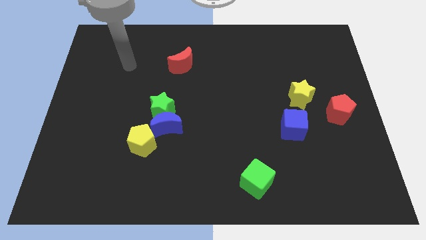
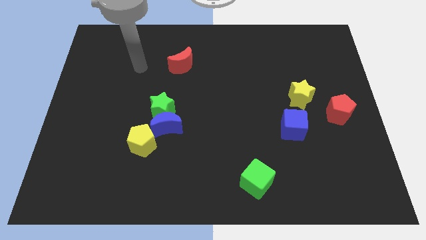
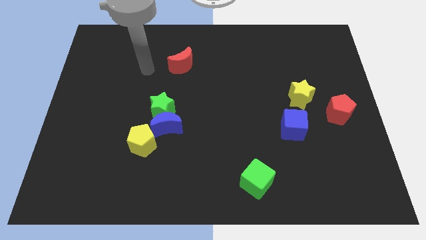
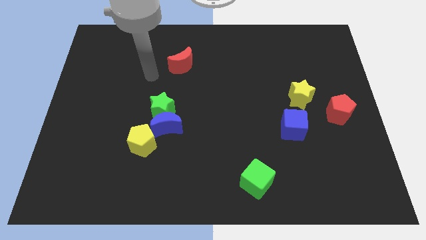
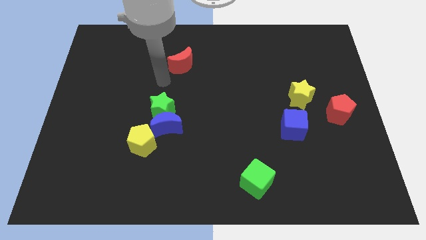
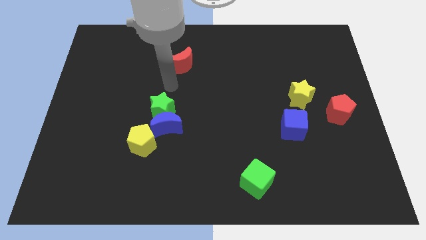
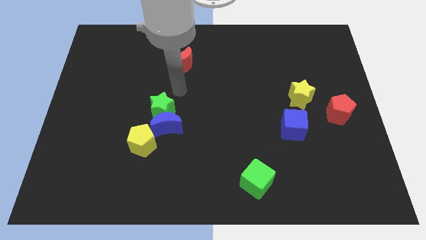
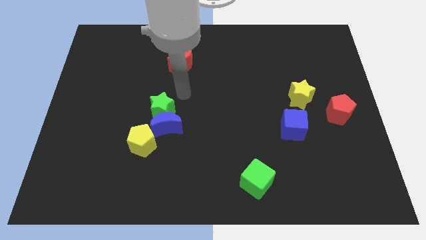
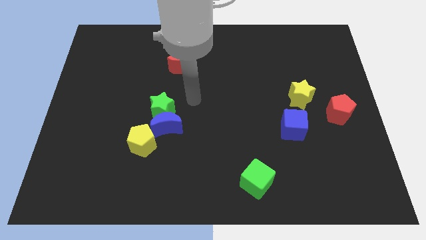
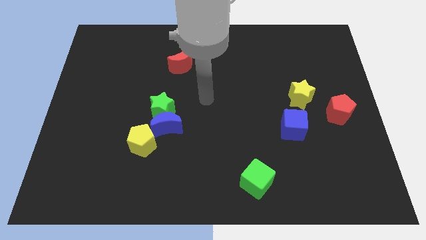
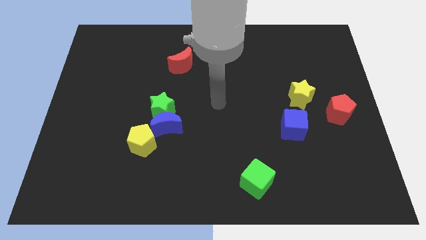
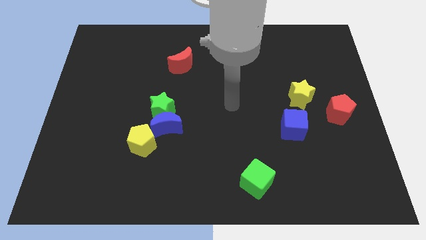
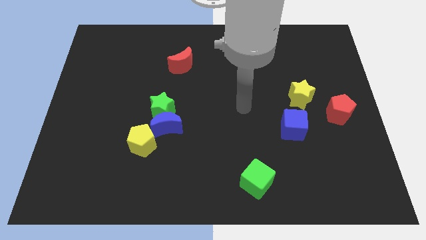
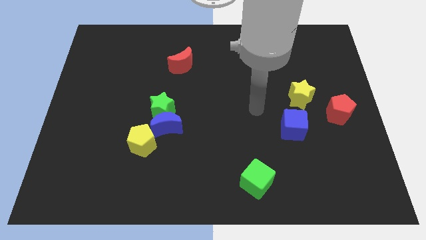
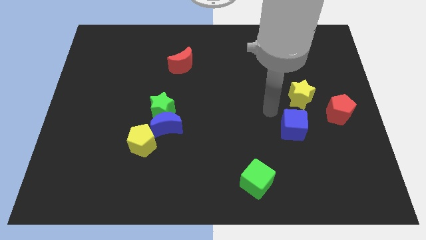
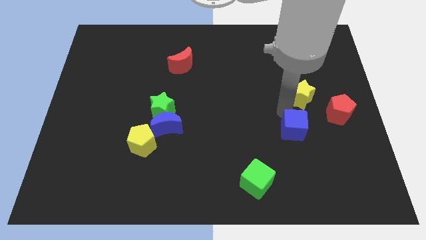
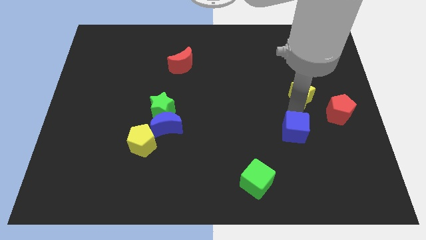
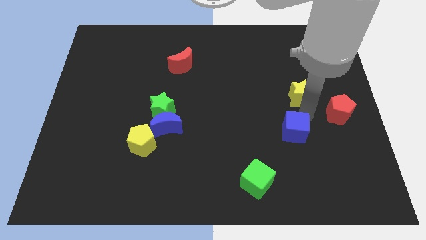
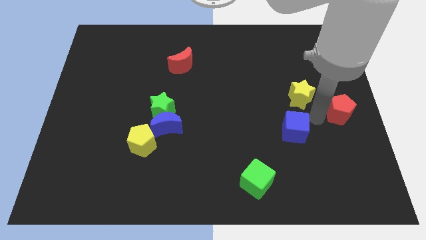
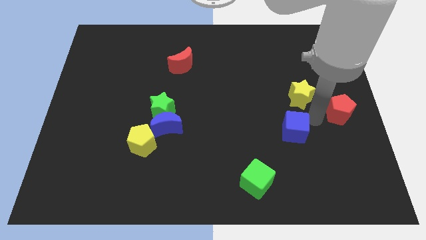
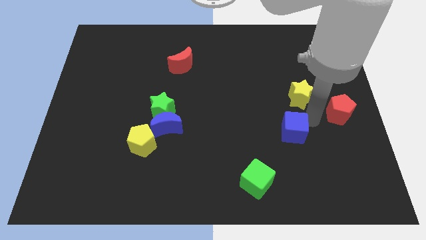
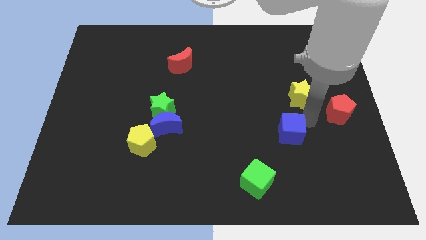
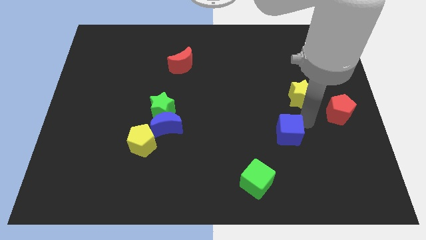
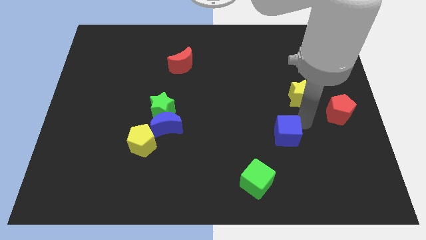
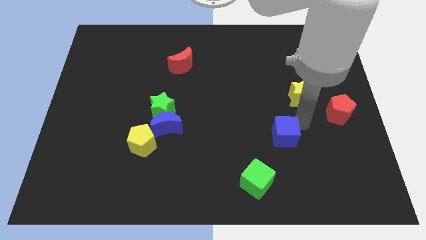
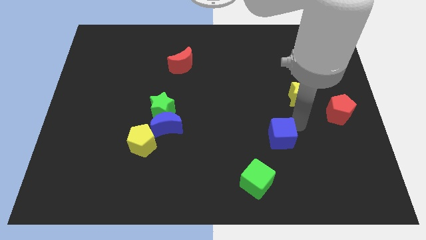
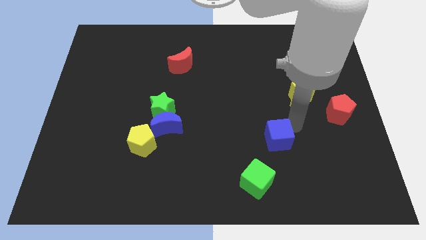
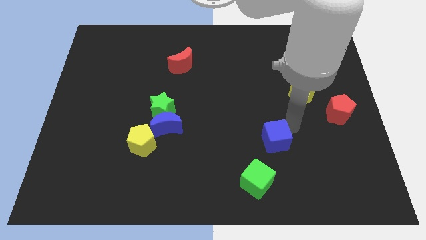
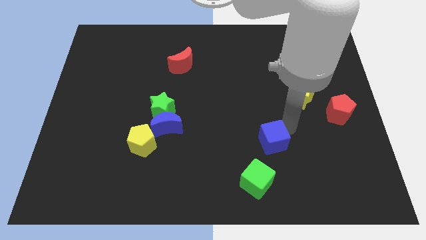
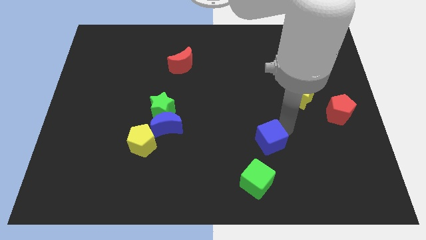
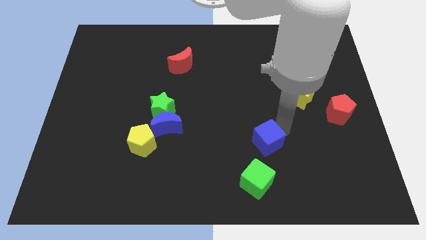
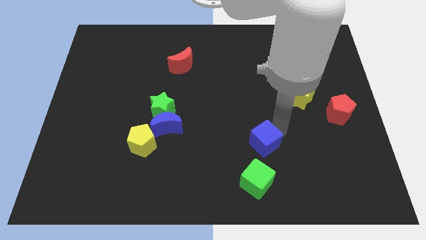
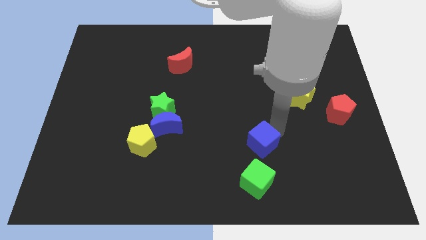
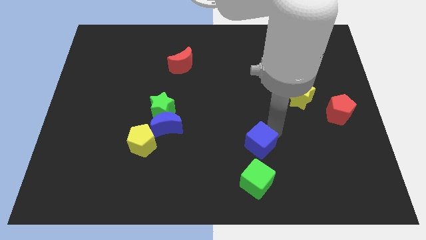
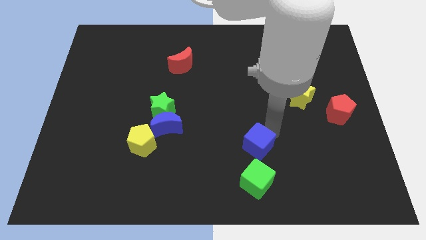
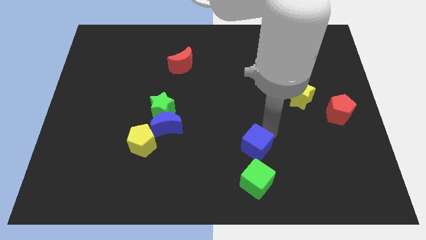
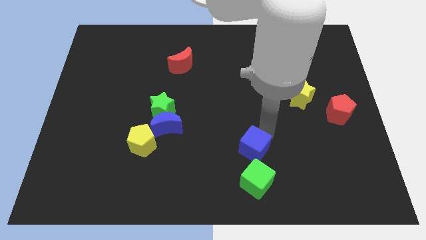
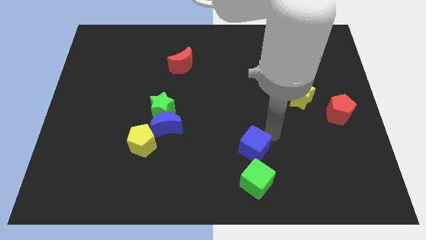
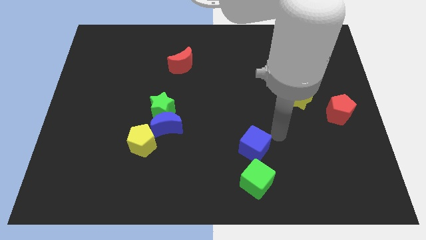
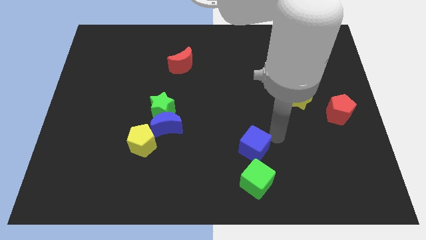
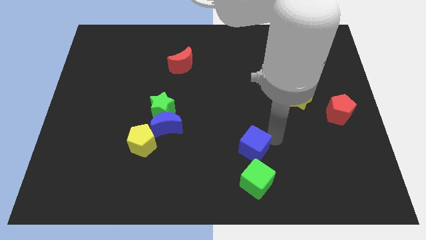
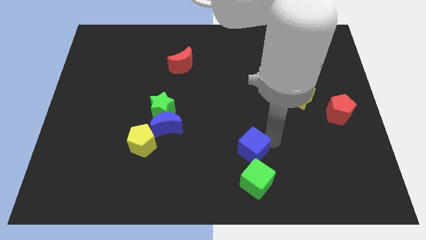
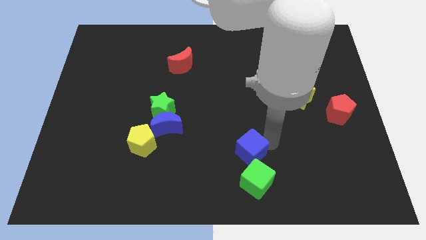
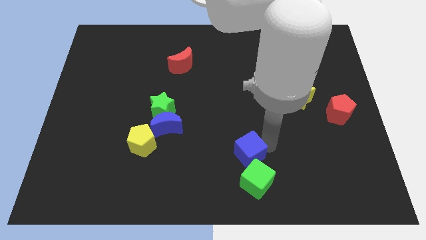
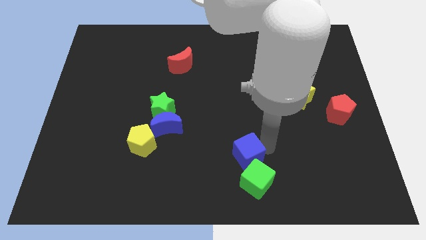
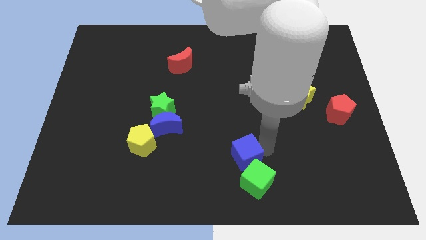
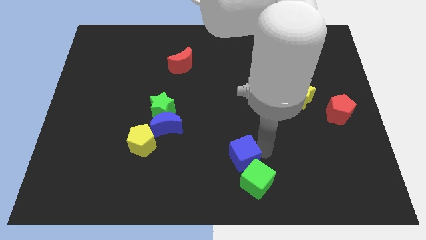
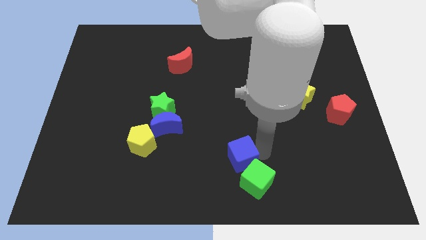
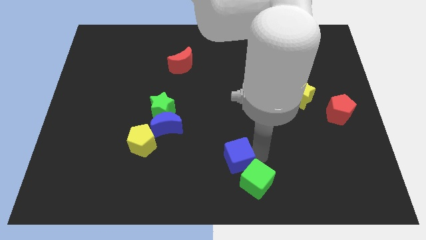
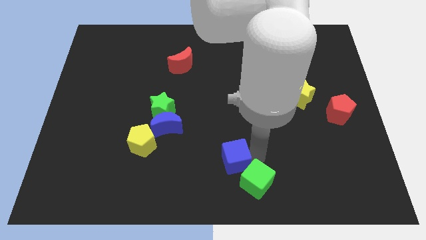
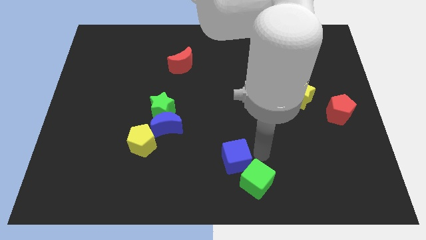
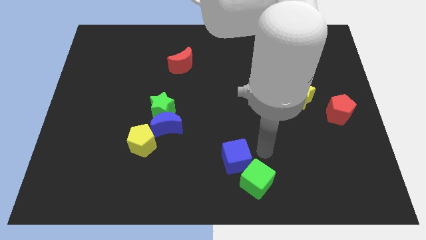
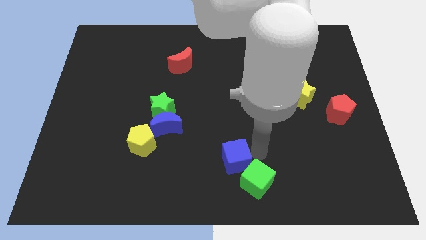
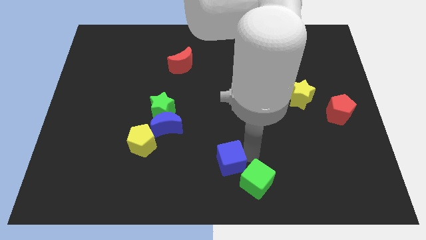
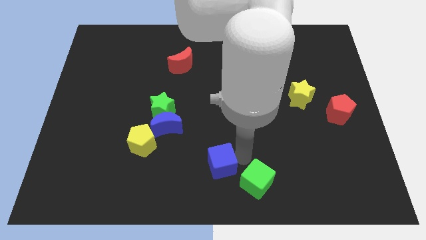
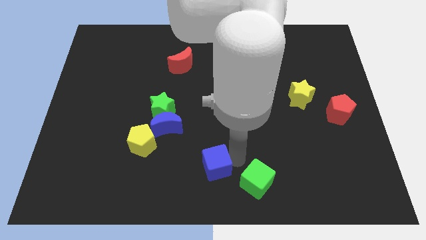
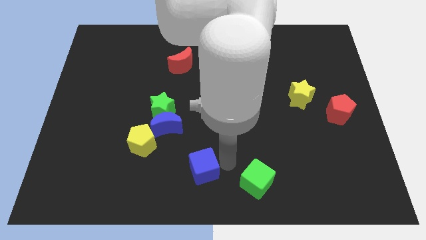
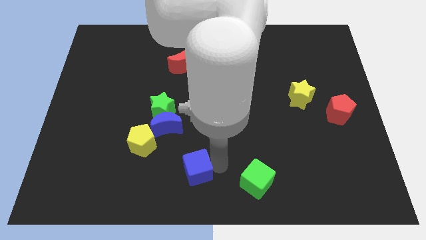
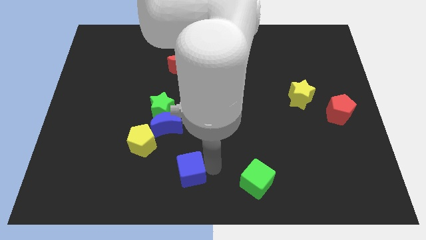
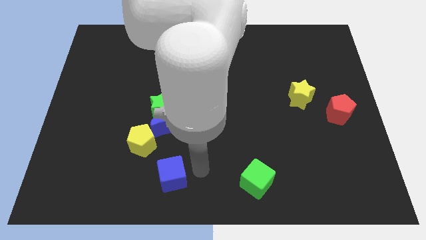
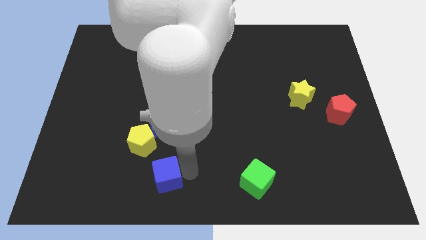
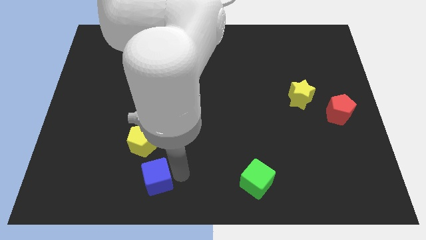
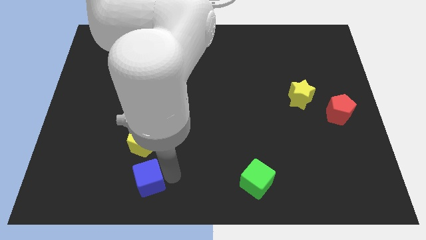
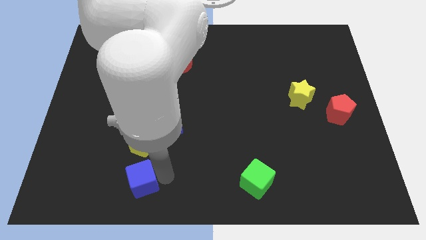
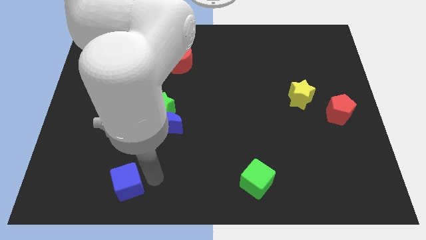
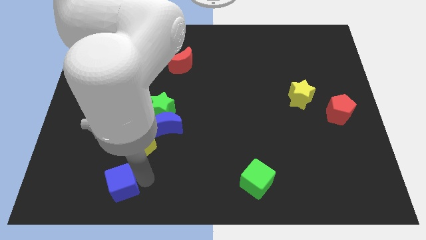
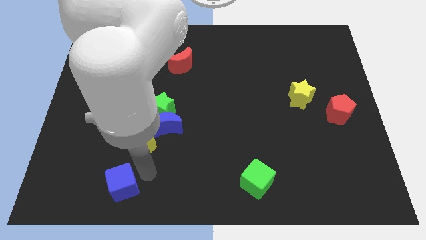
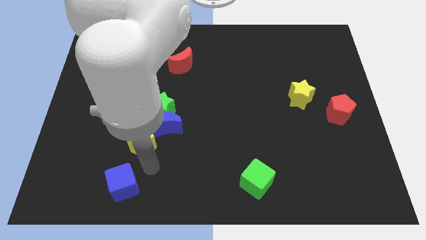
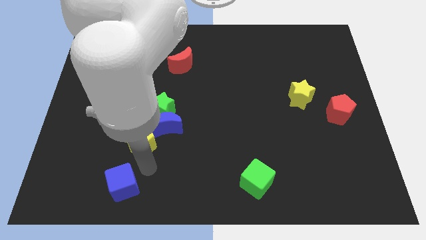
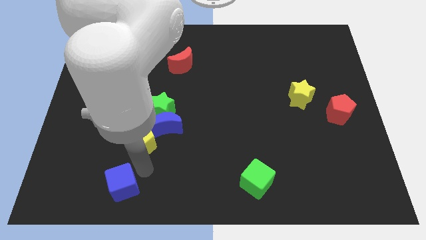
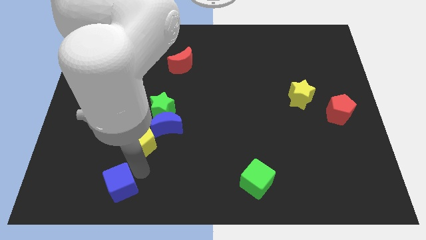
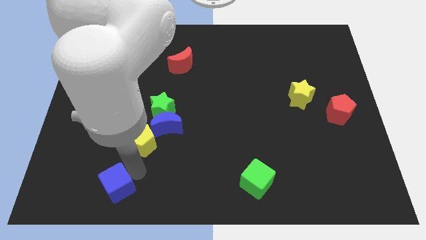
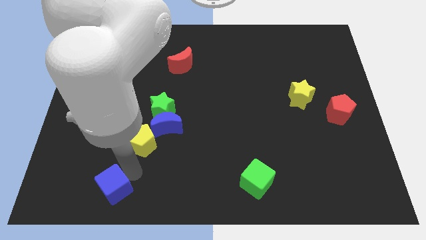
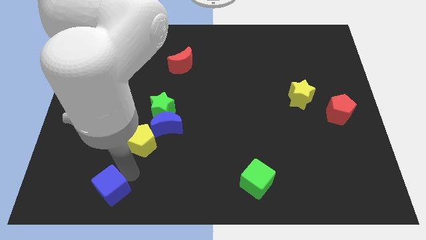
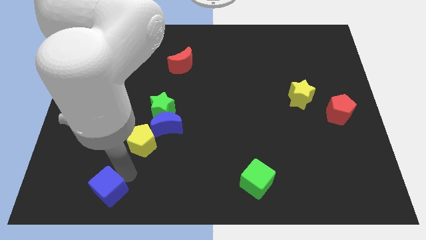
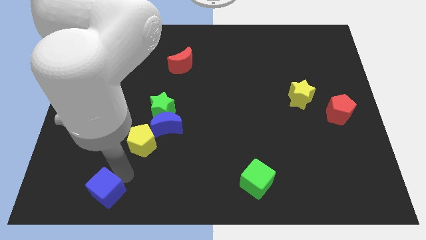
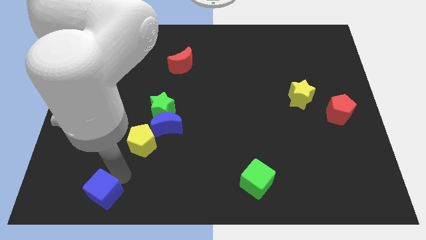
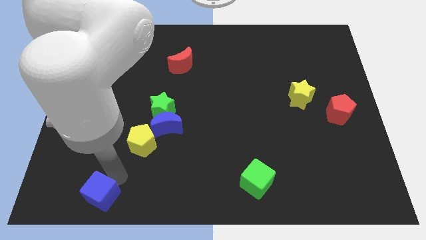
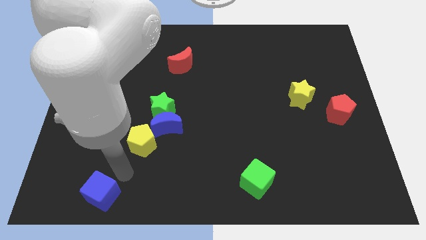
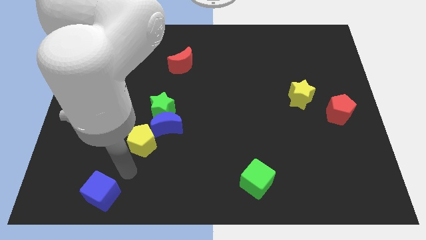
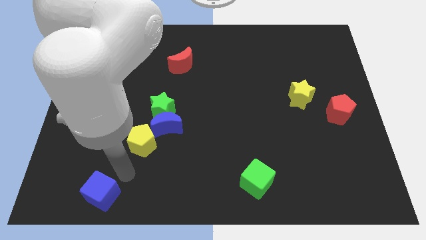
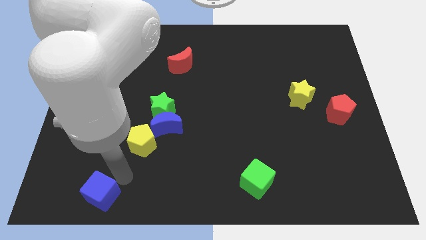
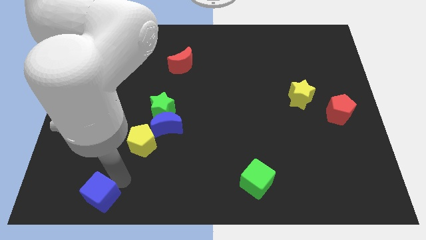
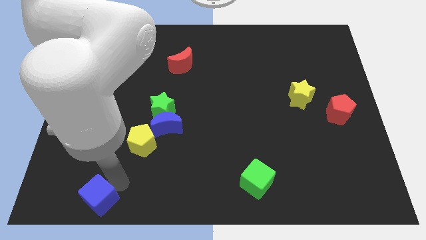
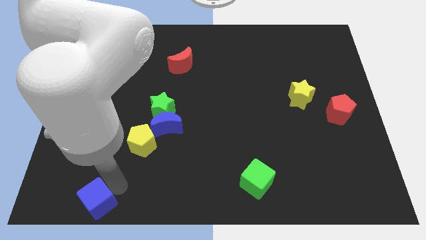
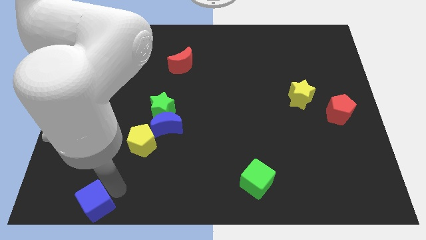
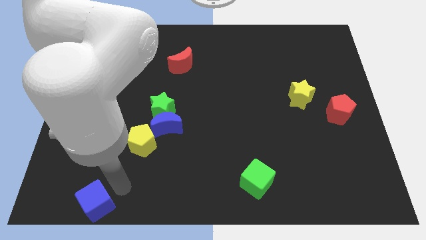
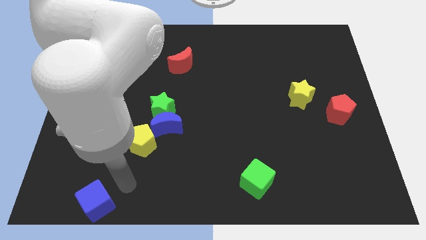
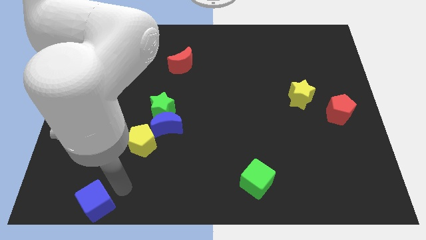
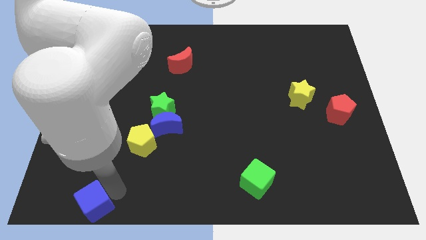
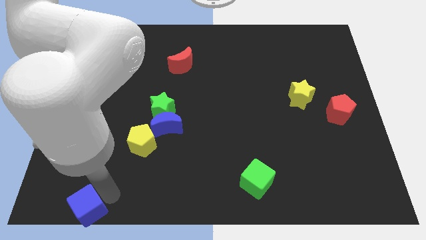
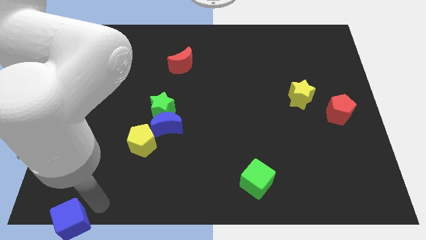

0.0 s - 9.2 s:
slide the blue cube to the bottom left corner
